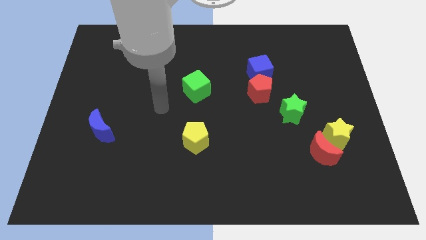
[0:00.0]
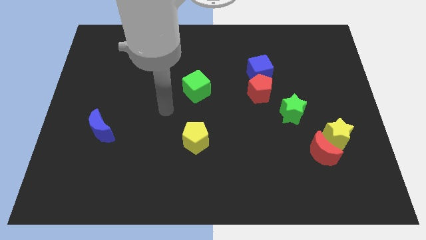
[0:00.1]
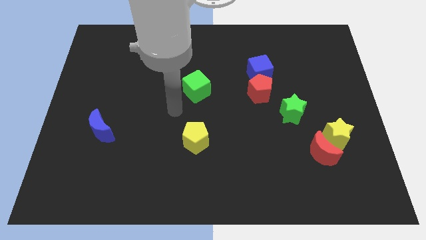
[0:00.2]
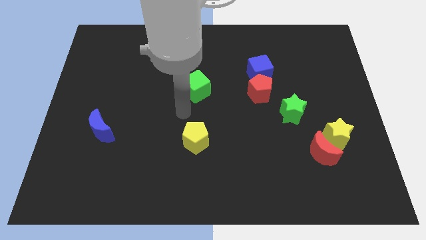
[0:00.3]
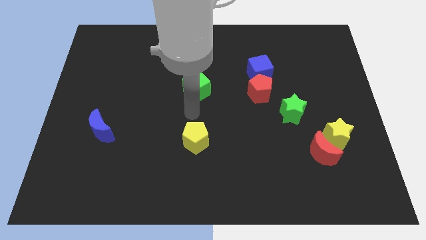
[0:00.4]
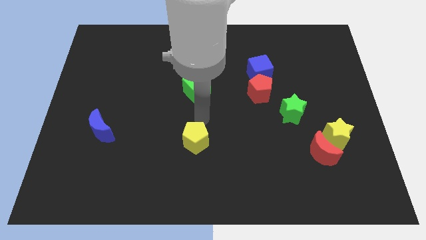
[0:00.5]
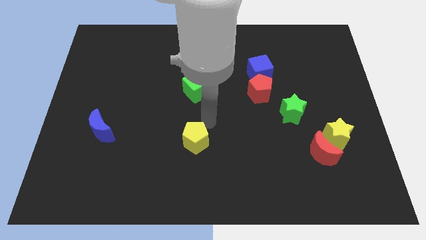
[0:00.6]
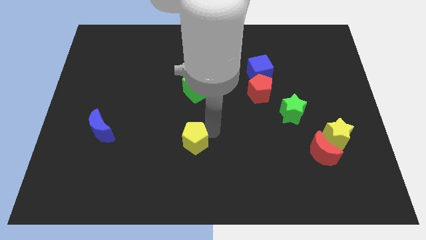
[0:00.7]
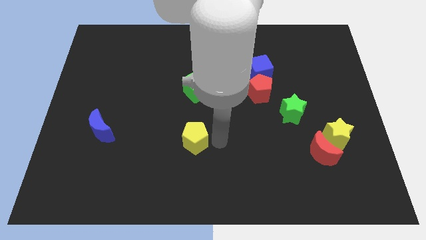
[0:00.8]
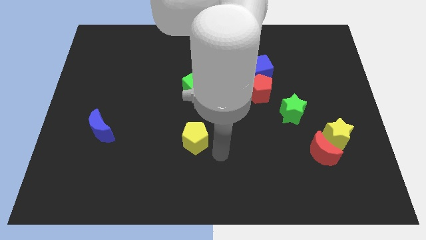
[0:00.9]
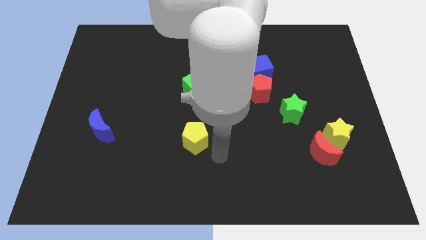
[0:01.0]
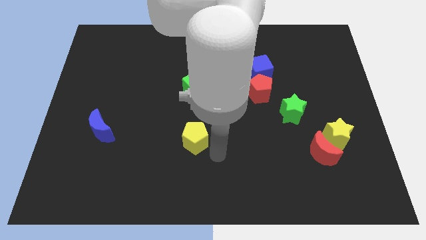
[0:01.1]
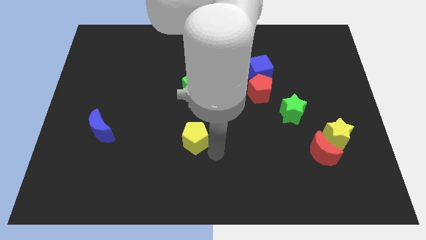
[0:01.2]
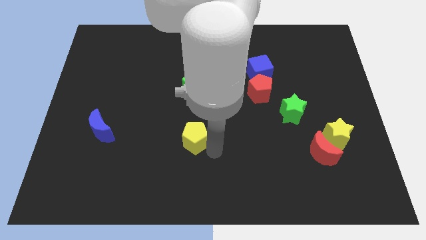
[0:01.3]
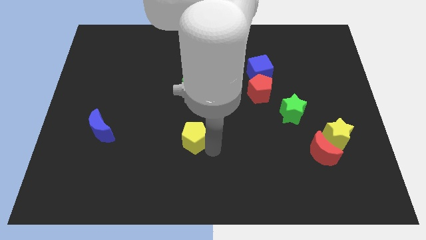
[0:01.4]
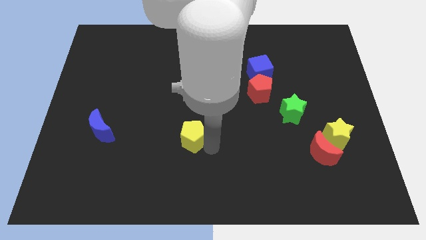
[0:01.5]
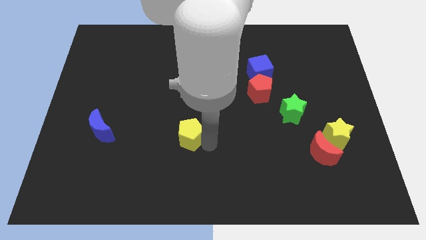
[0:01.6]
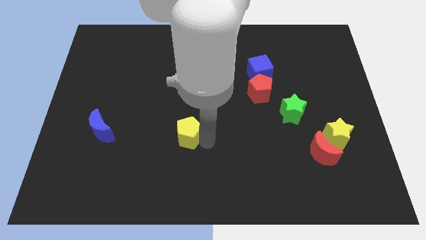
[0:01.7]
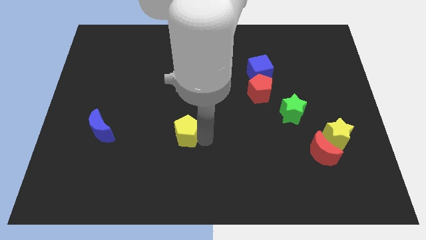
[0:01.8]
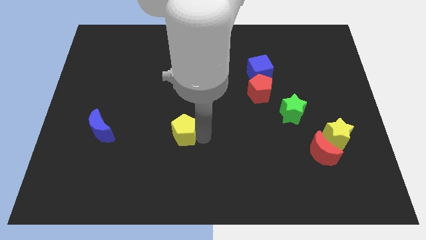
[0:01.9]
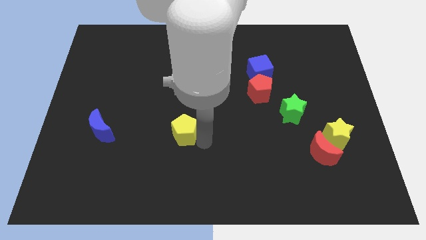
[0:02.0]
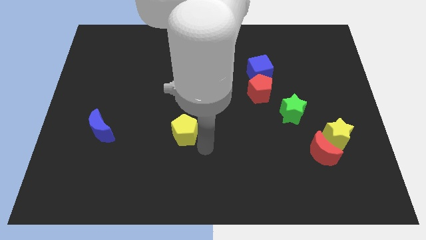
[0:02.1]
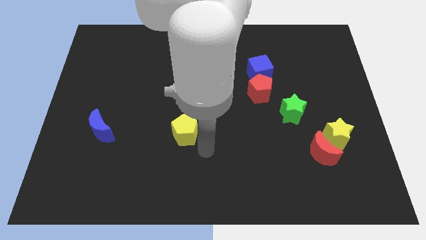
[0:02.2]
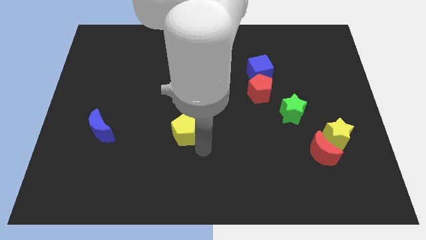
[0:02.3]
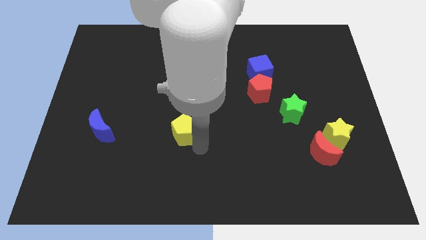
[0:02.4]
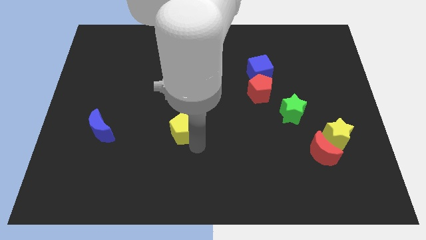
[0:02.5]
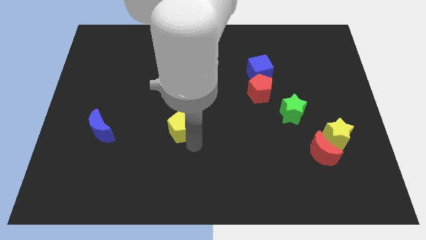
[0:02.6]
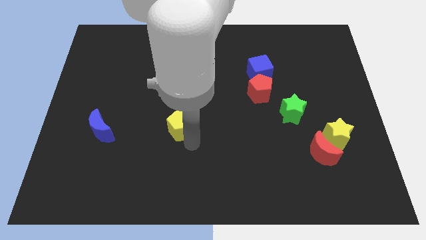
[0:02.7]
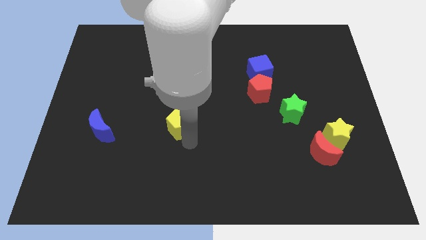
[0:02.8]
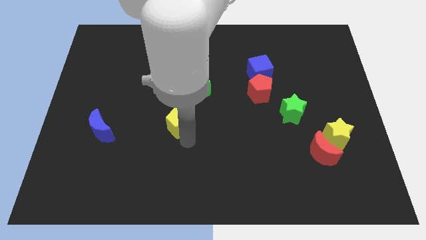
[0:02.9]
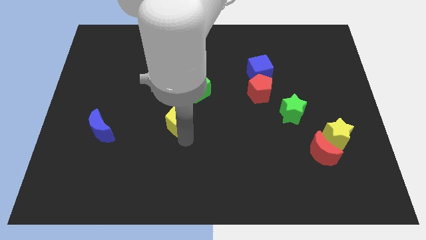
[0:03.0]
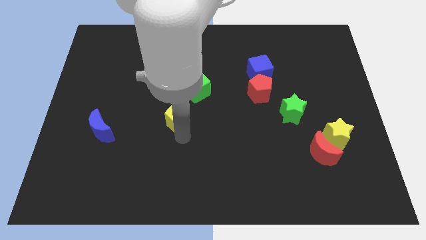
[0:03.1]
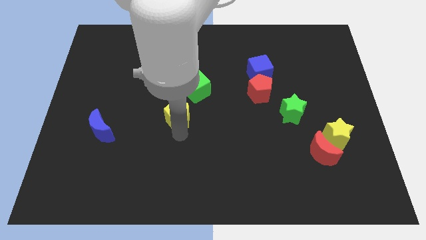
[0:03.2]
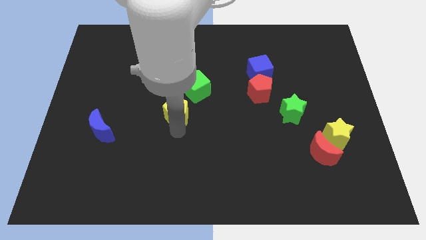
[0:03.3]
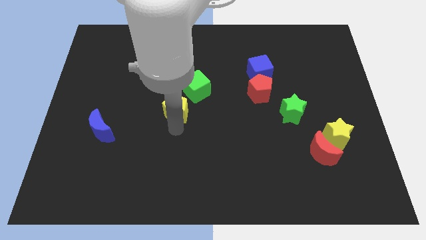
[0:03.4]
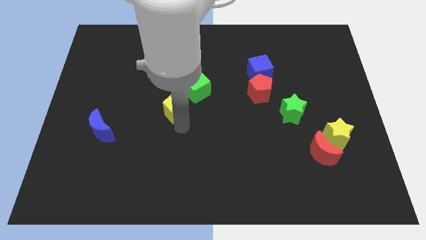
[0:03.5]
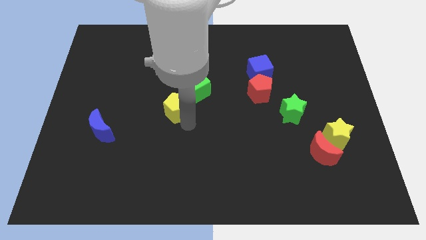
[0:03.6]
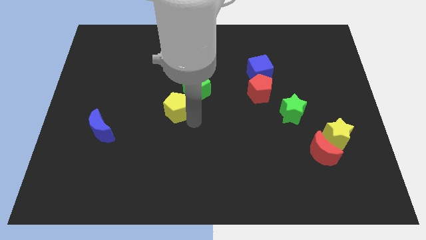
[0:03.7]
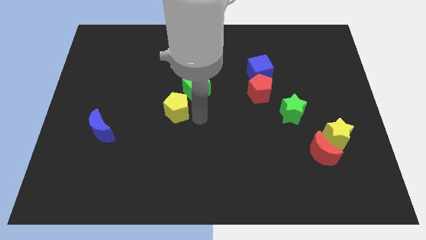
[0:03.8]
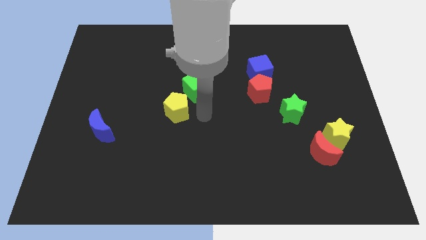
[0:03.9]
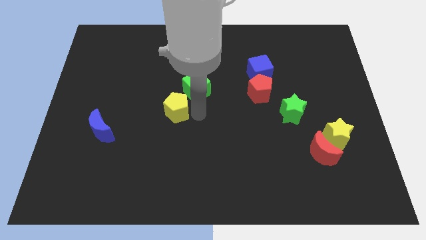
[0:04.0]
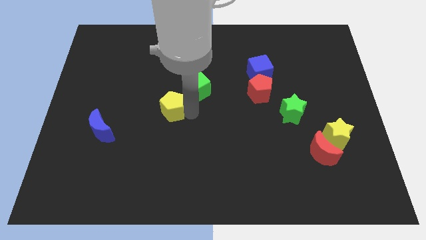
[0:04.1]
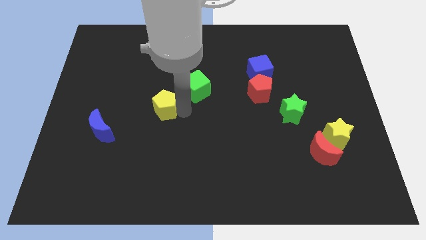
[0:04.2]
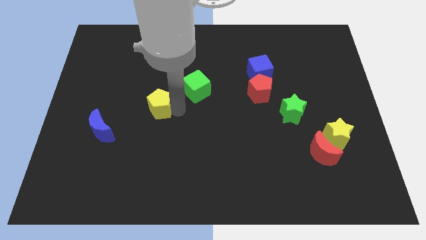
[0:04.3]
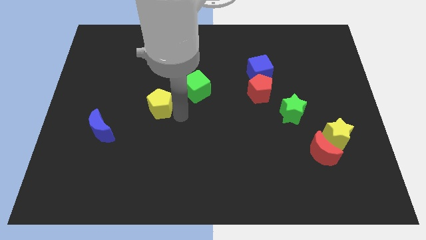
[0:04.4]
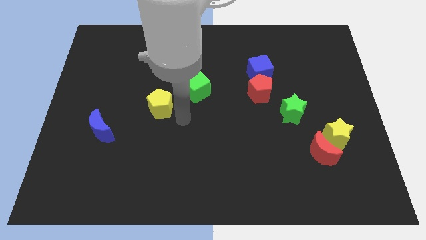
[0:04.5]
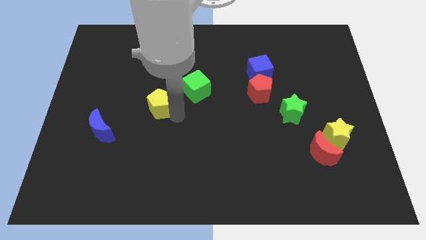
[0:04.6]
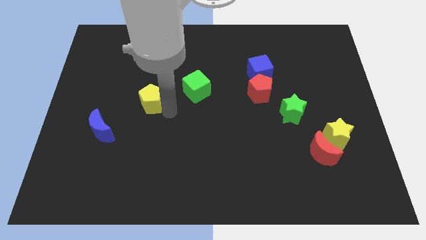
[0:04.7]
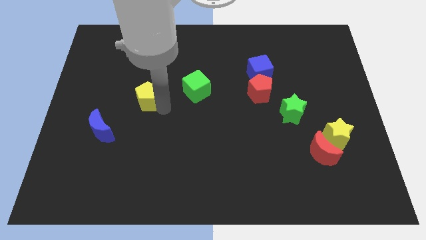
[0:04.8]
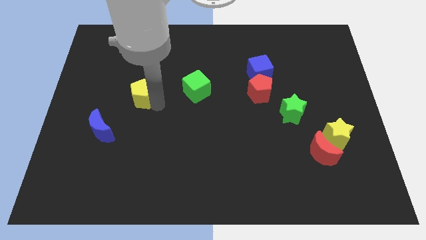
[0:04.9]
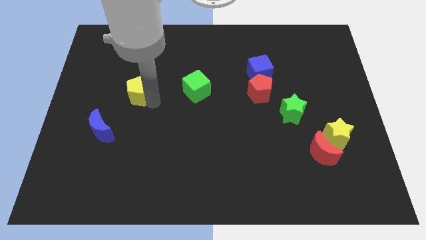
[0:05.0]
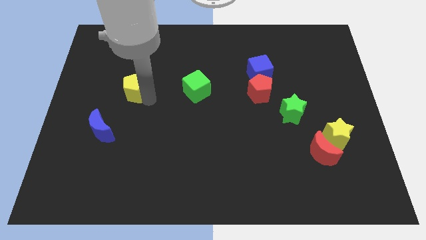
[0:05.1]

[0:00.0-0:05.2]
slide the yellow pentagon up and to the left diagonally

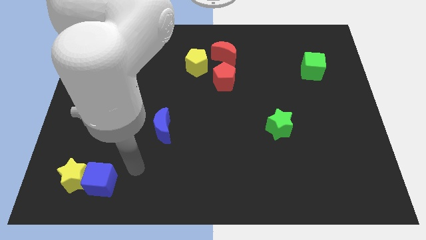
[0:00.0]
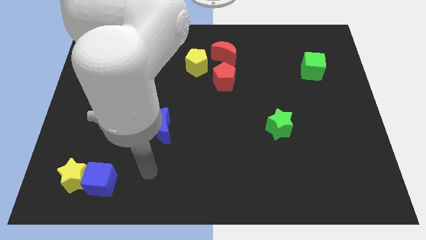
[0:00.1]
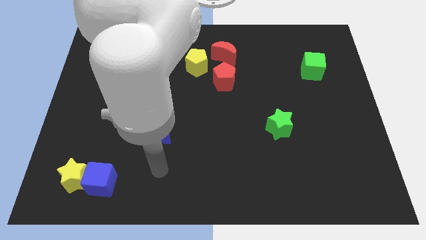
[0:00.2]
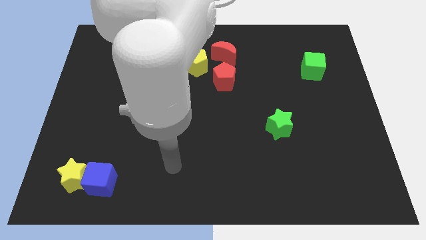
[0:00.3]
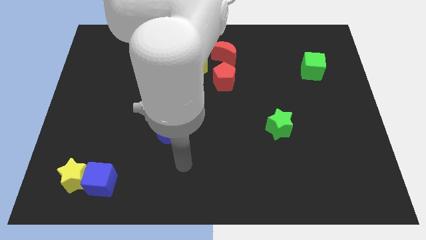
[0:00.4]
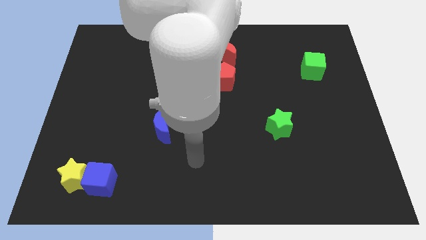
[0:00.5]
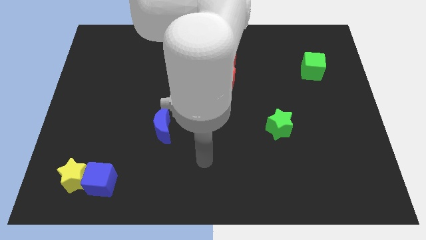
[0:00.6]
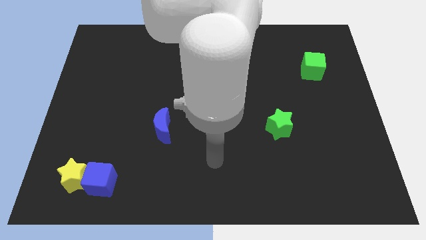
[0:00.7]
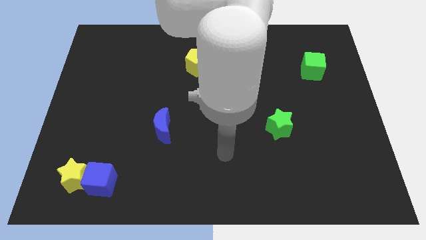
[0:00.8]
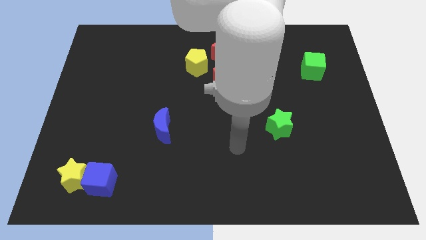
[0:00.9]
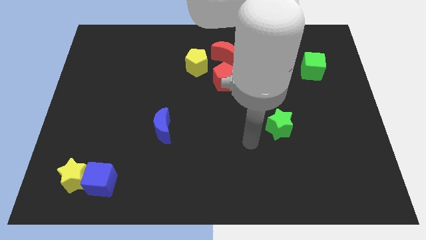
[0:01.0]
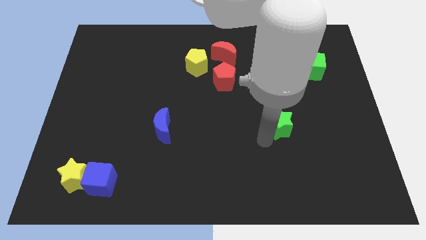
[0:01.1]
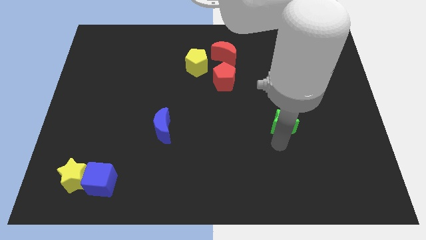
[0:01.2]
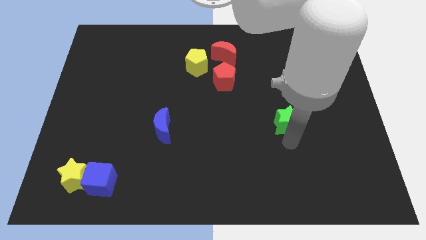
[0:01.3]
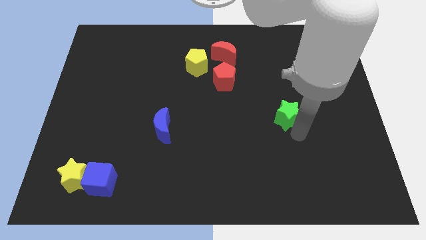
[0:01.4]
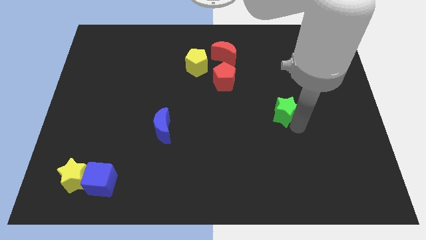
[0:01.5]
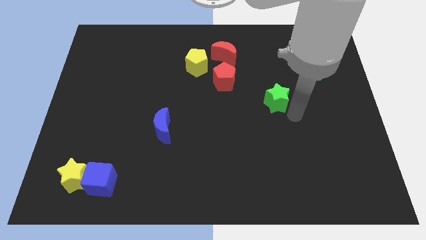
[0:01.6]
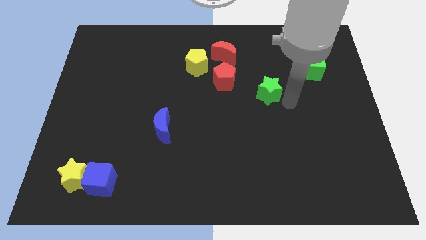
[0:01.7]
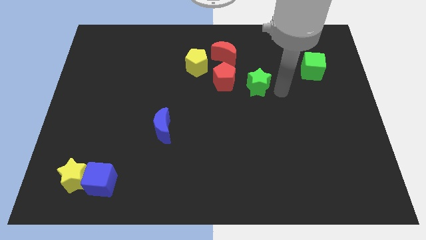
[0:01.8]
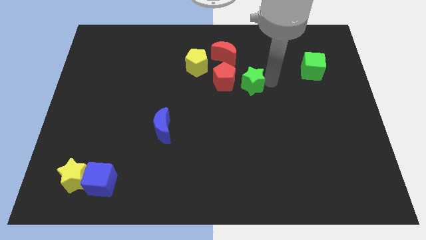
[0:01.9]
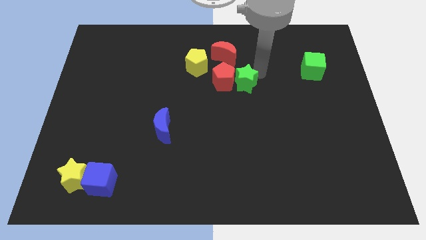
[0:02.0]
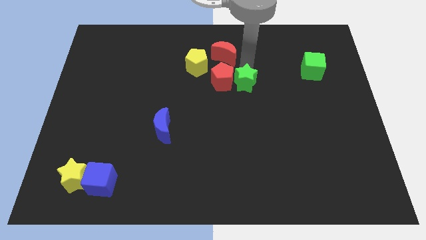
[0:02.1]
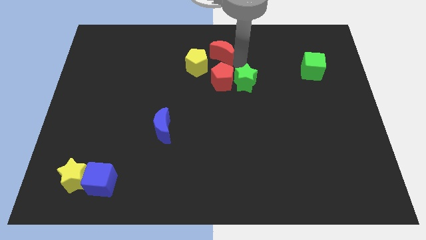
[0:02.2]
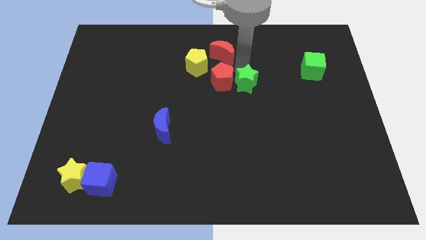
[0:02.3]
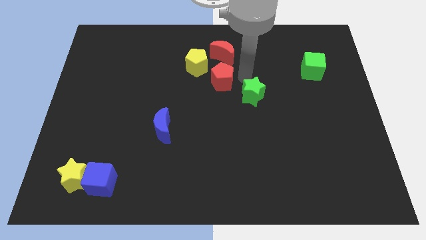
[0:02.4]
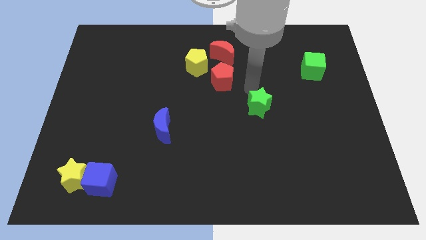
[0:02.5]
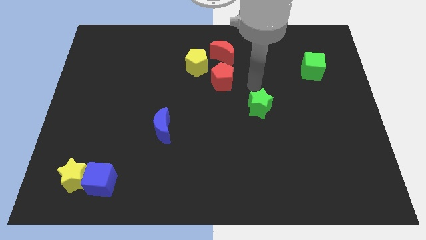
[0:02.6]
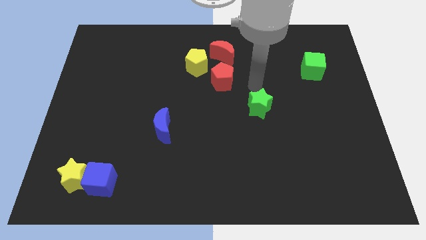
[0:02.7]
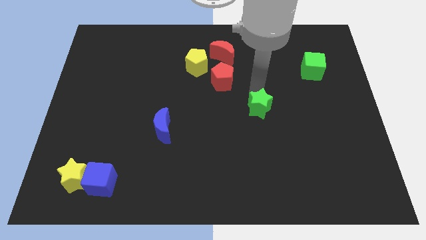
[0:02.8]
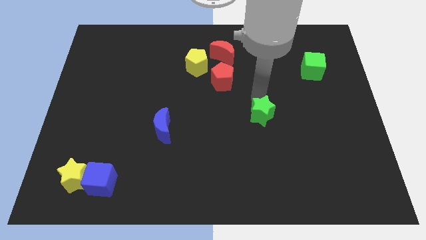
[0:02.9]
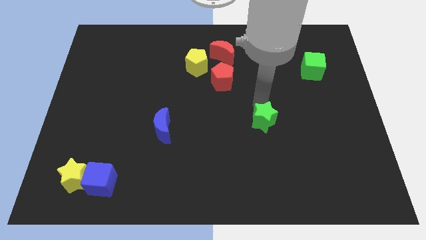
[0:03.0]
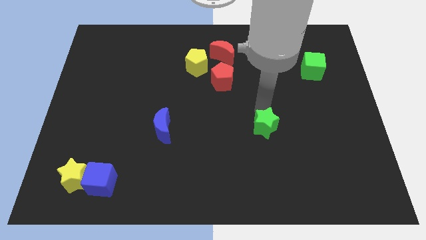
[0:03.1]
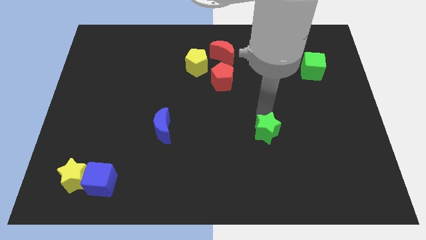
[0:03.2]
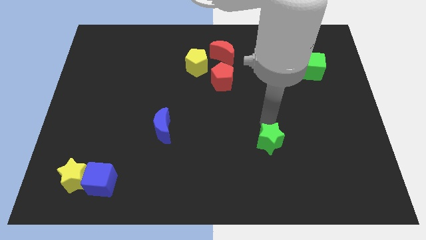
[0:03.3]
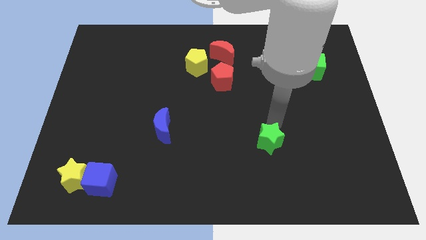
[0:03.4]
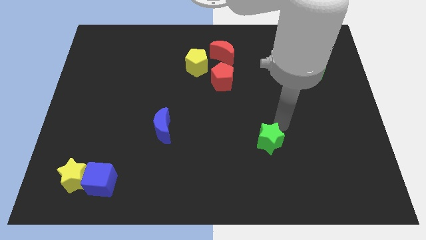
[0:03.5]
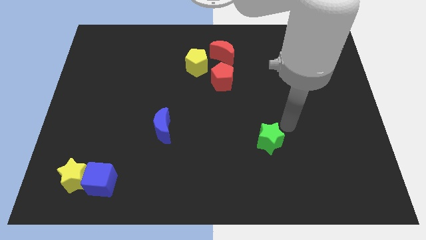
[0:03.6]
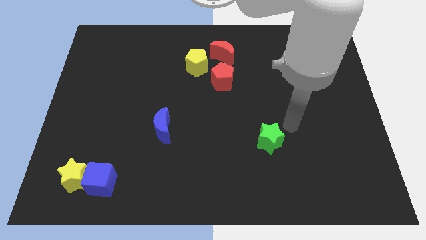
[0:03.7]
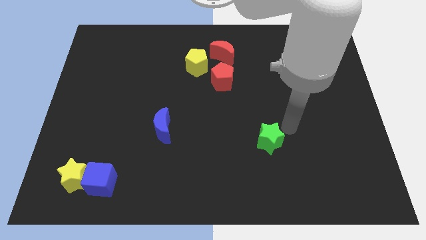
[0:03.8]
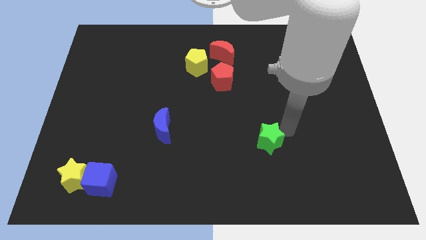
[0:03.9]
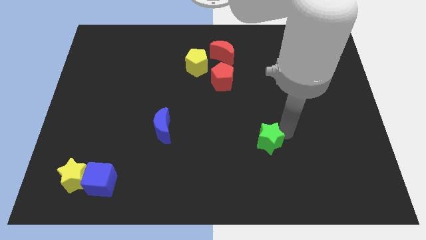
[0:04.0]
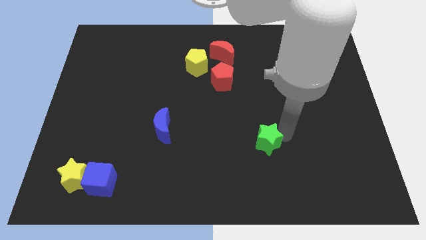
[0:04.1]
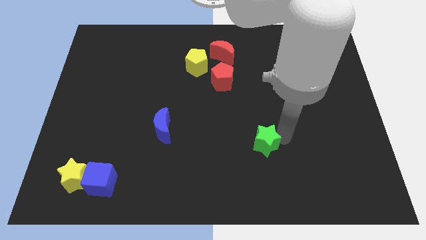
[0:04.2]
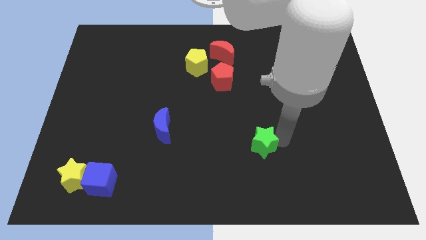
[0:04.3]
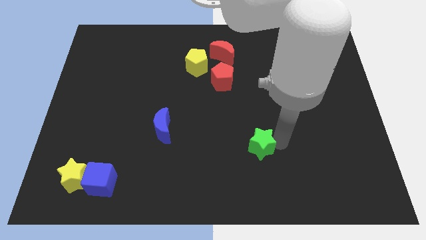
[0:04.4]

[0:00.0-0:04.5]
push the green star downwards and left diagonally somewhat
